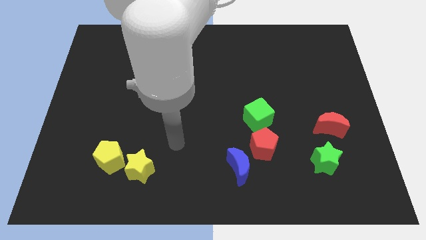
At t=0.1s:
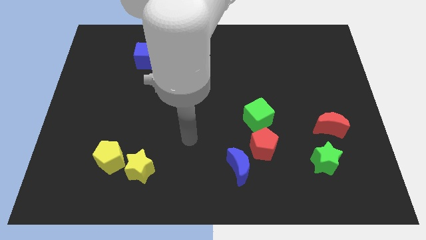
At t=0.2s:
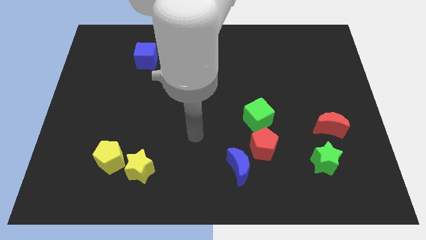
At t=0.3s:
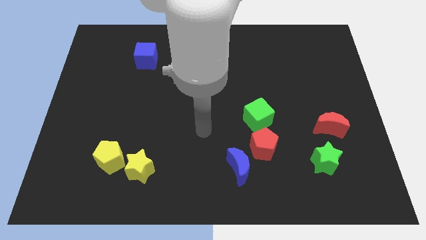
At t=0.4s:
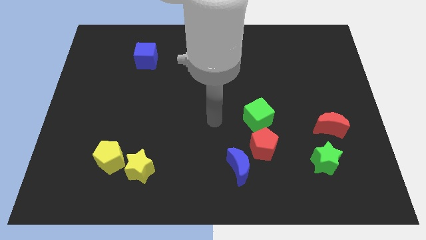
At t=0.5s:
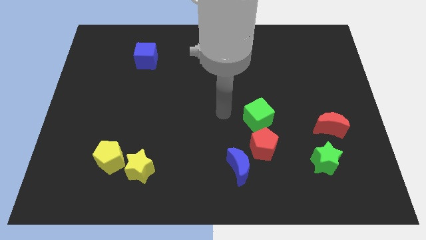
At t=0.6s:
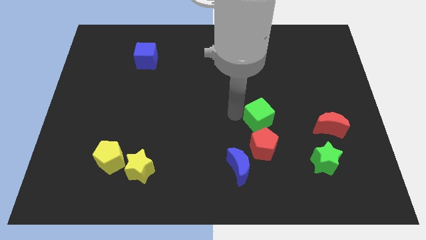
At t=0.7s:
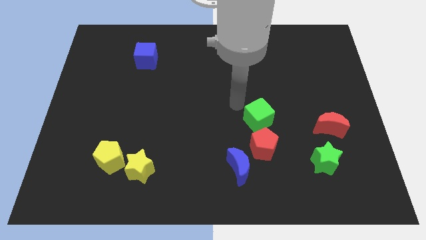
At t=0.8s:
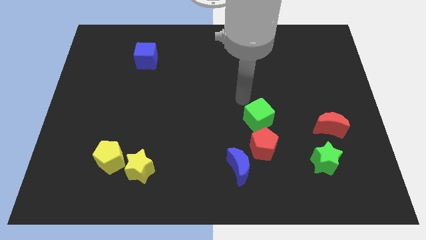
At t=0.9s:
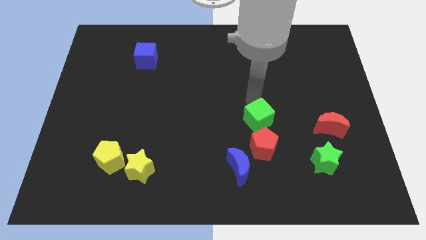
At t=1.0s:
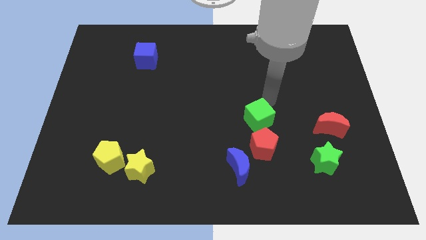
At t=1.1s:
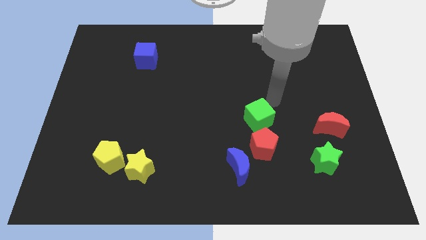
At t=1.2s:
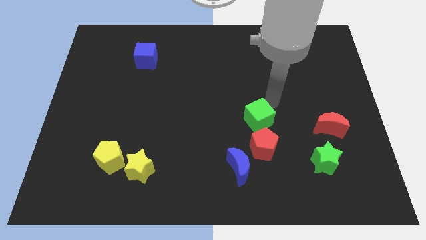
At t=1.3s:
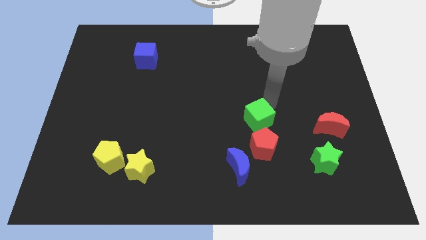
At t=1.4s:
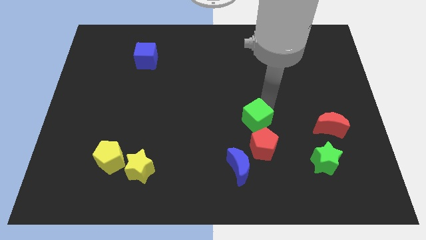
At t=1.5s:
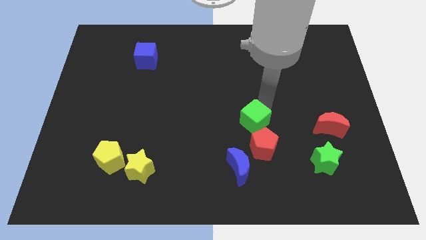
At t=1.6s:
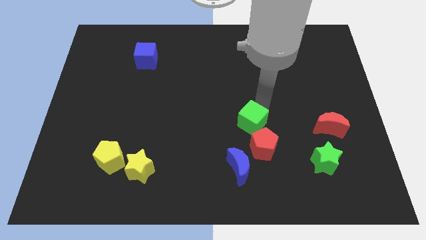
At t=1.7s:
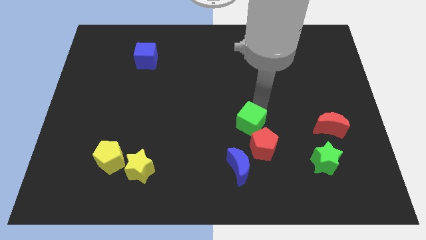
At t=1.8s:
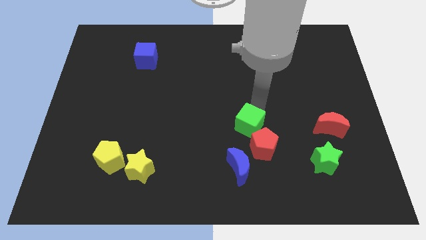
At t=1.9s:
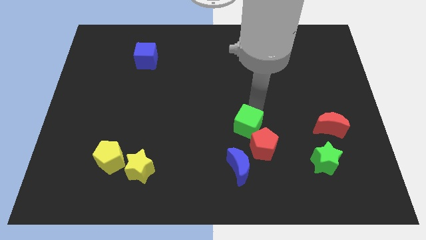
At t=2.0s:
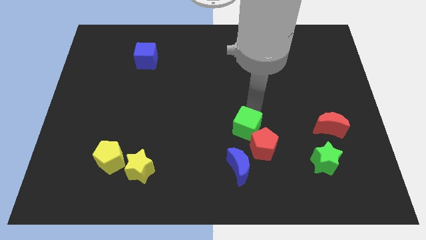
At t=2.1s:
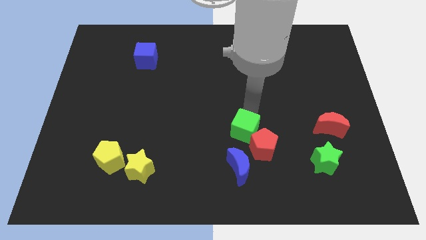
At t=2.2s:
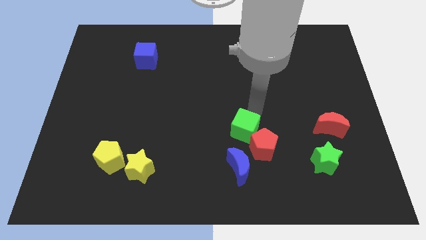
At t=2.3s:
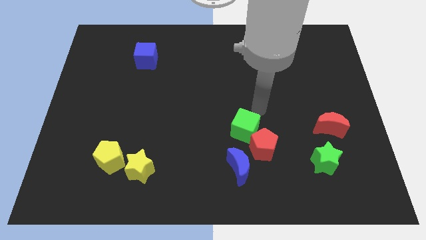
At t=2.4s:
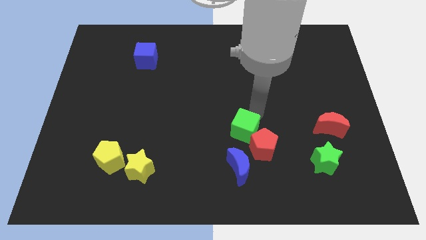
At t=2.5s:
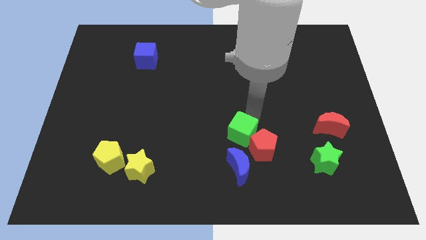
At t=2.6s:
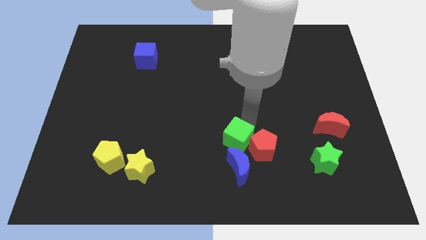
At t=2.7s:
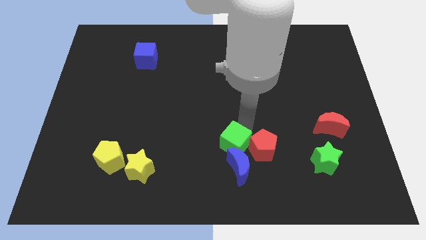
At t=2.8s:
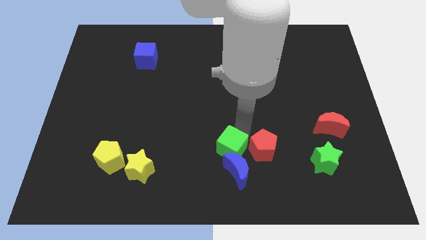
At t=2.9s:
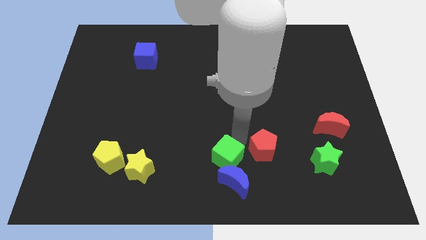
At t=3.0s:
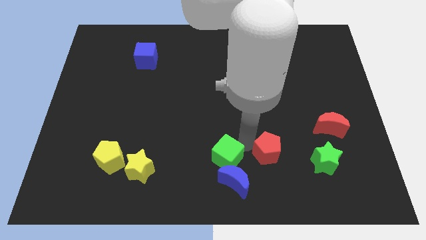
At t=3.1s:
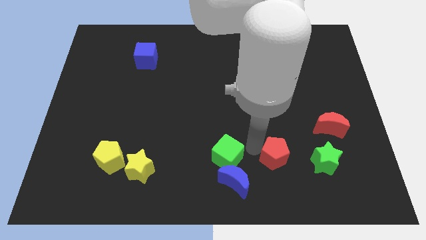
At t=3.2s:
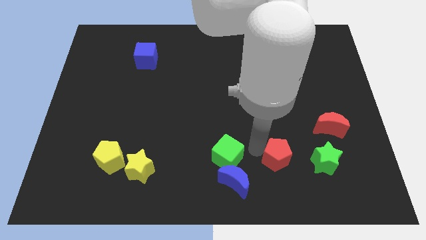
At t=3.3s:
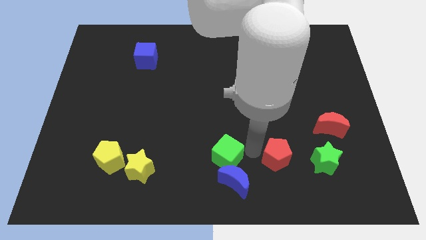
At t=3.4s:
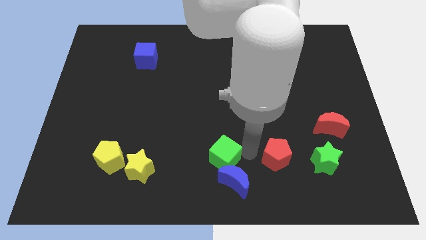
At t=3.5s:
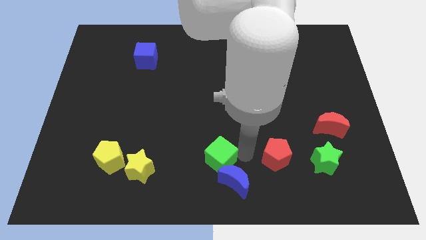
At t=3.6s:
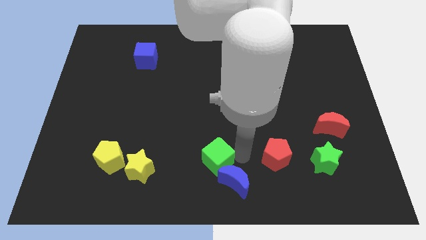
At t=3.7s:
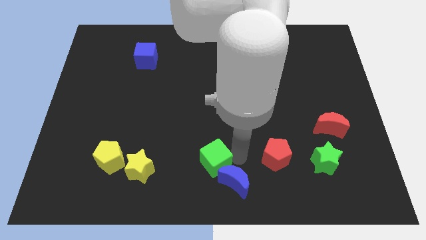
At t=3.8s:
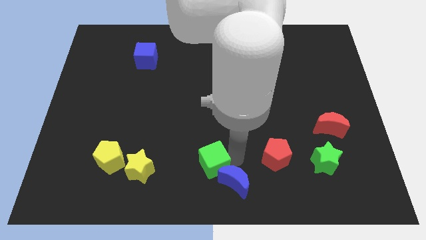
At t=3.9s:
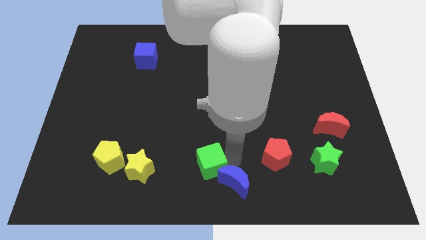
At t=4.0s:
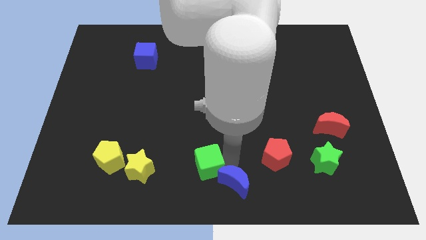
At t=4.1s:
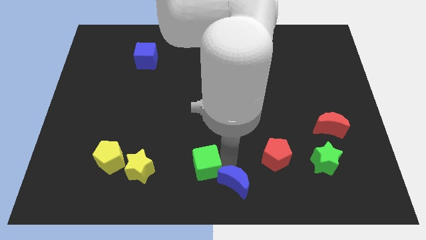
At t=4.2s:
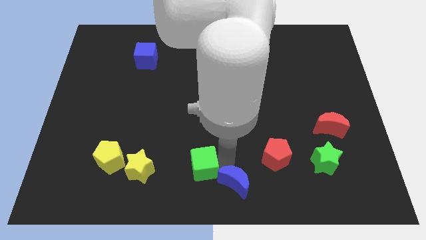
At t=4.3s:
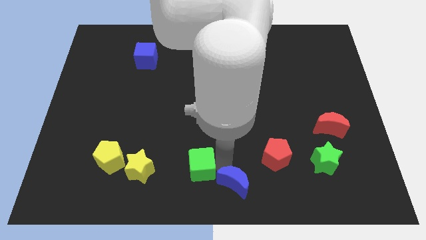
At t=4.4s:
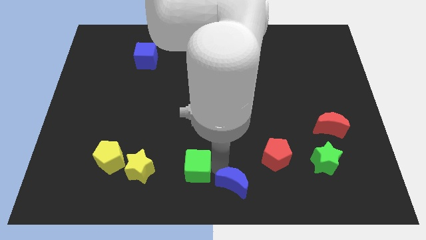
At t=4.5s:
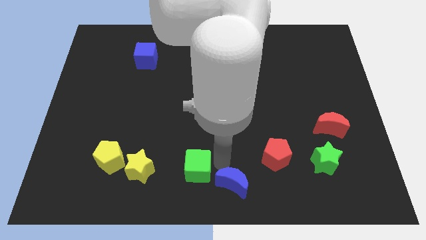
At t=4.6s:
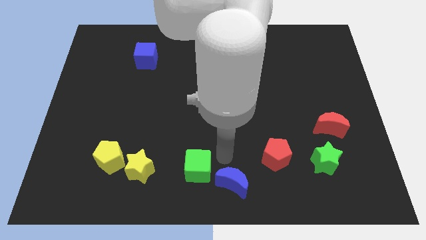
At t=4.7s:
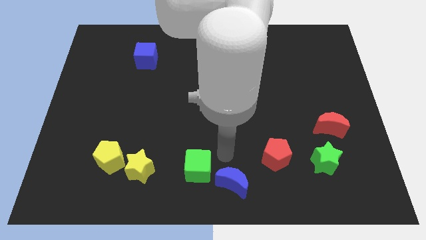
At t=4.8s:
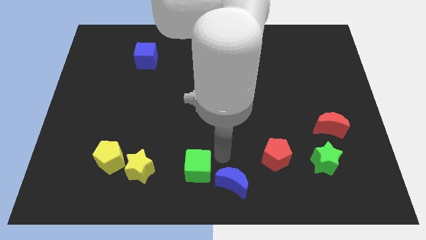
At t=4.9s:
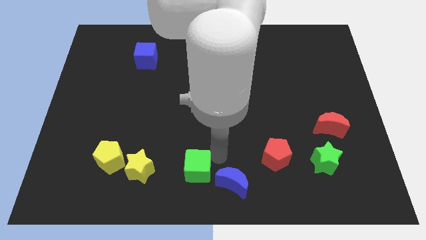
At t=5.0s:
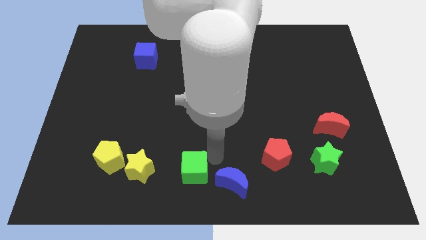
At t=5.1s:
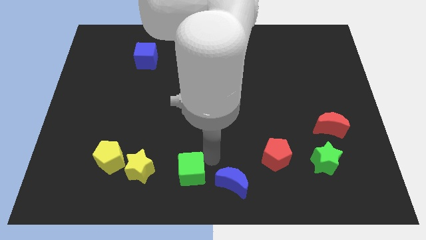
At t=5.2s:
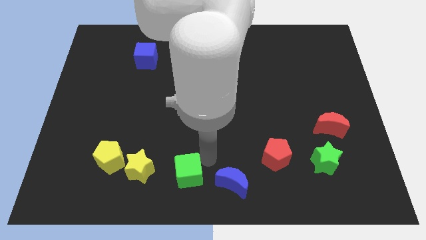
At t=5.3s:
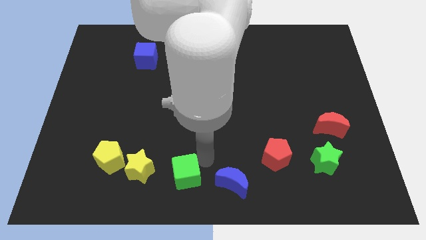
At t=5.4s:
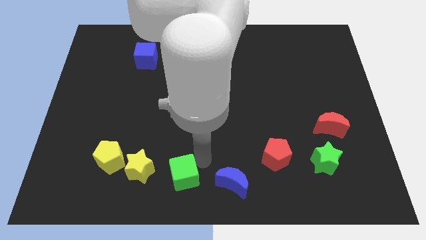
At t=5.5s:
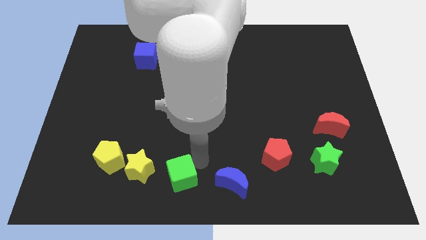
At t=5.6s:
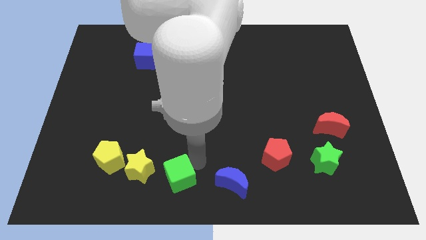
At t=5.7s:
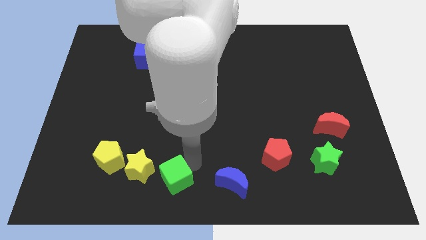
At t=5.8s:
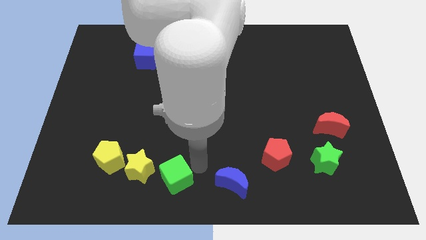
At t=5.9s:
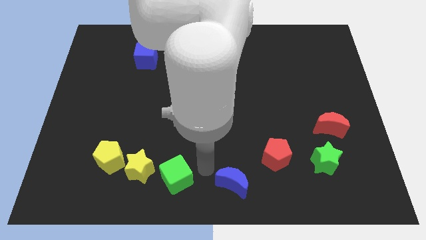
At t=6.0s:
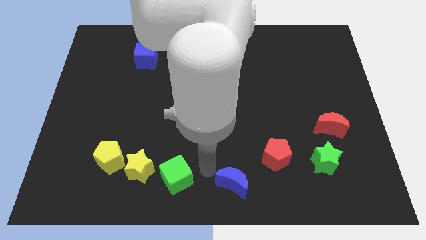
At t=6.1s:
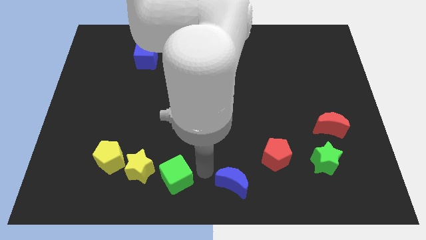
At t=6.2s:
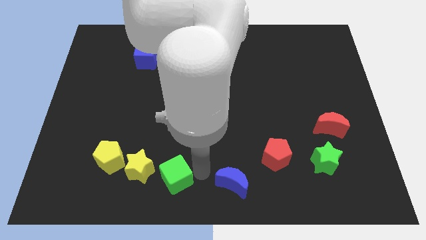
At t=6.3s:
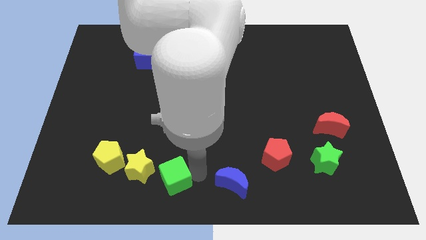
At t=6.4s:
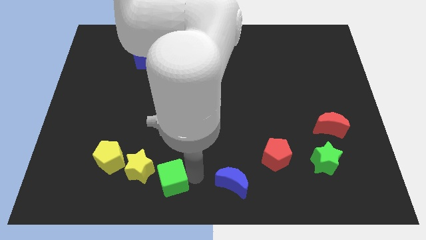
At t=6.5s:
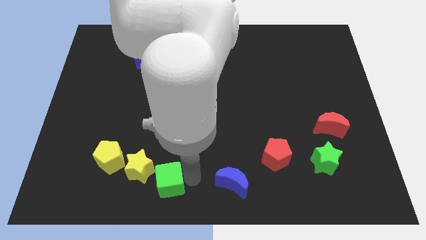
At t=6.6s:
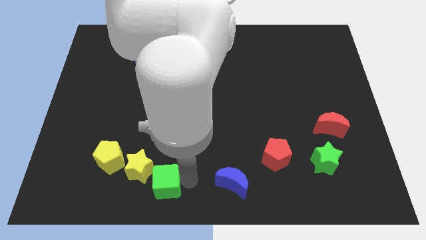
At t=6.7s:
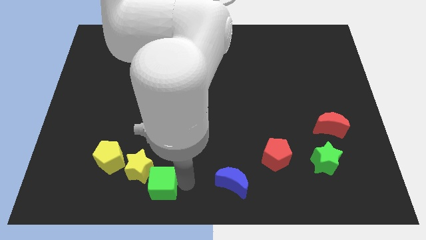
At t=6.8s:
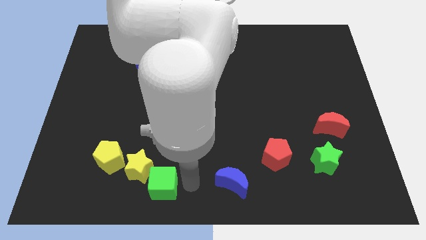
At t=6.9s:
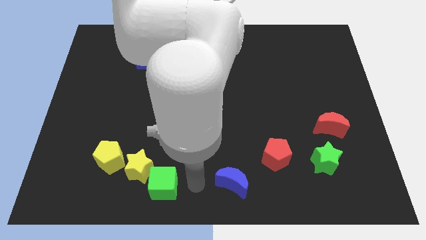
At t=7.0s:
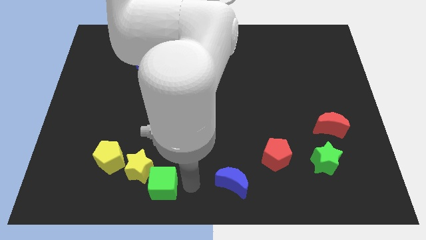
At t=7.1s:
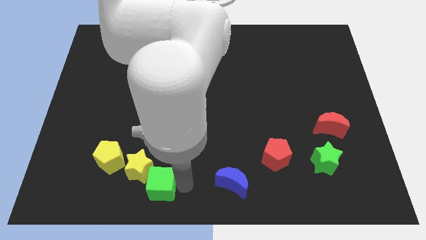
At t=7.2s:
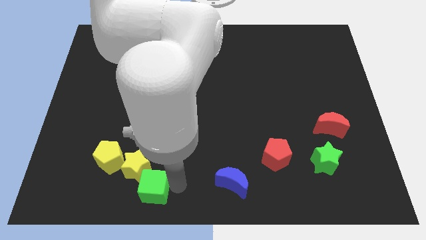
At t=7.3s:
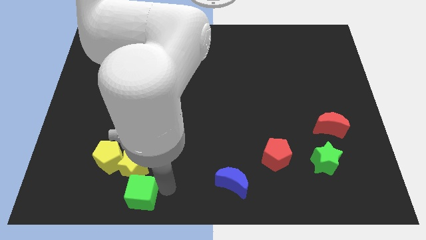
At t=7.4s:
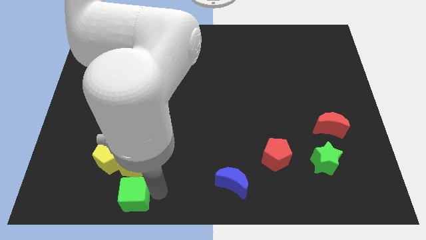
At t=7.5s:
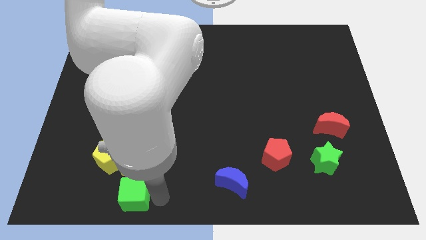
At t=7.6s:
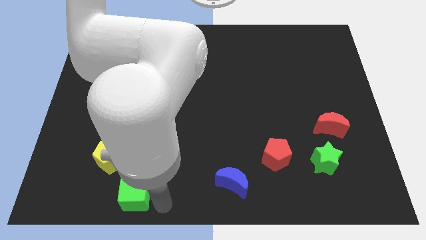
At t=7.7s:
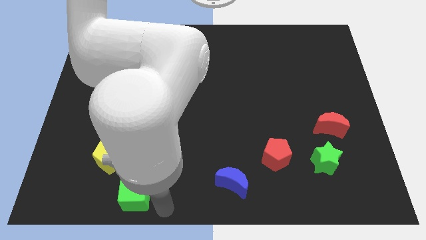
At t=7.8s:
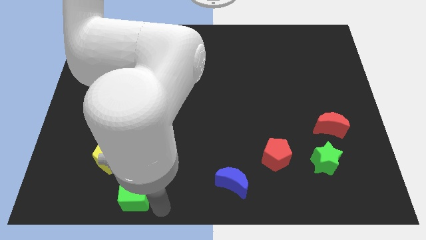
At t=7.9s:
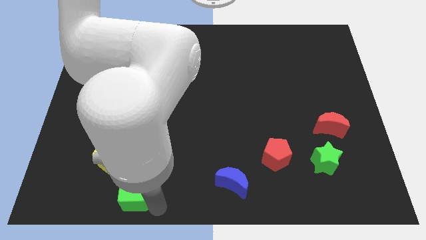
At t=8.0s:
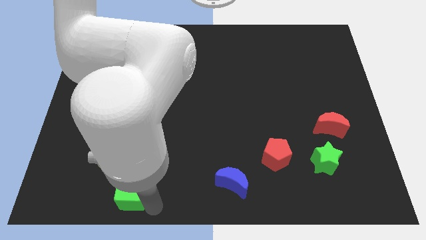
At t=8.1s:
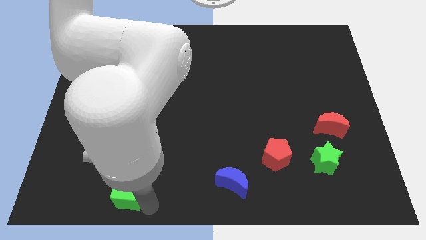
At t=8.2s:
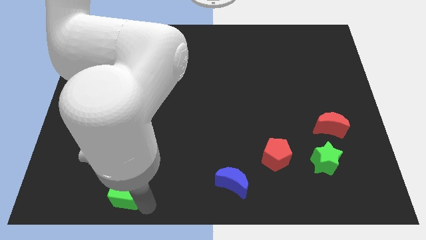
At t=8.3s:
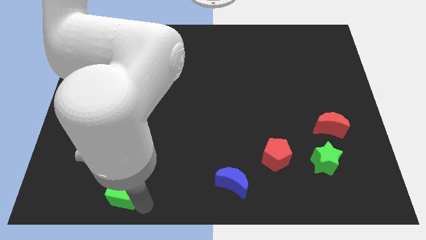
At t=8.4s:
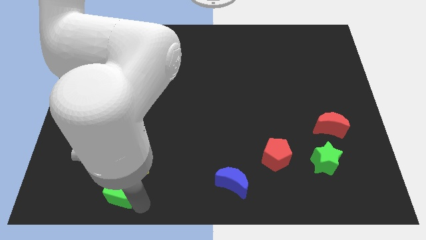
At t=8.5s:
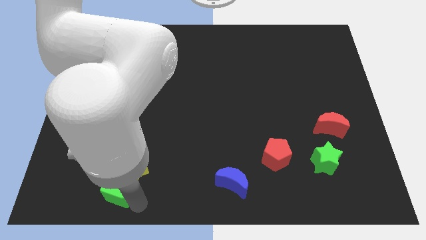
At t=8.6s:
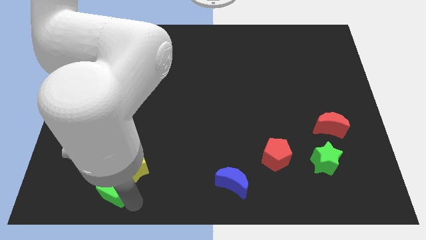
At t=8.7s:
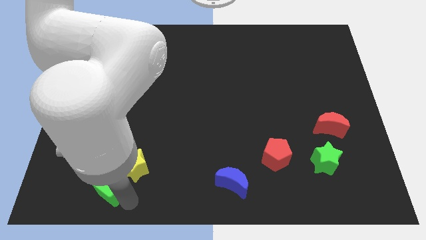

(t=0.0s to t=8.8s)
slide the green cube to the left of the yellow star
